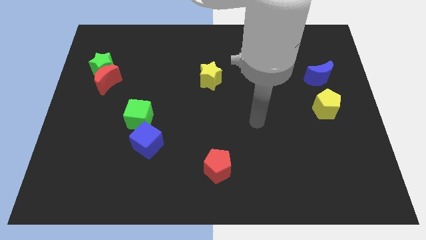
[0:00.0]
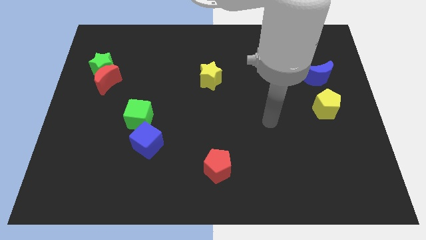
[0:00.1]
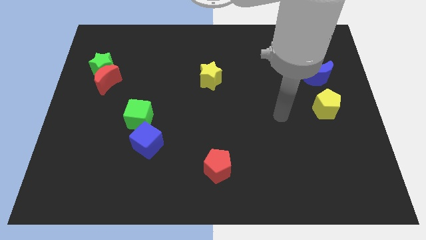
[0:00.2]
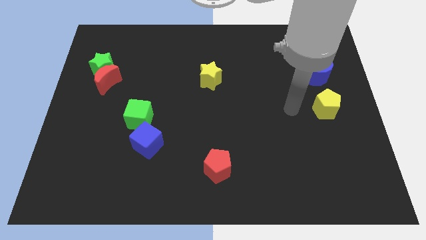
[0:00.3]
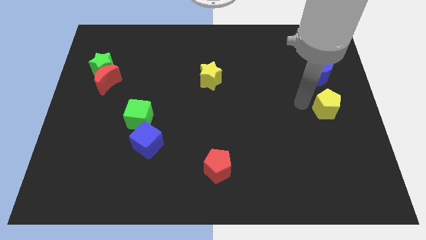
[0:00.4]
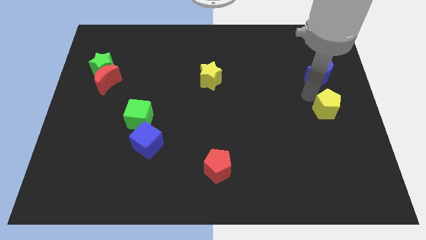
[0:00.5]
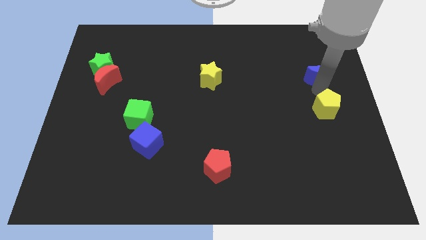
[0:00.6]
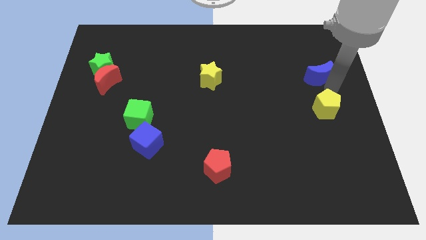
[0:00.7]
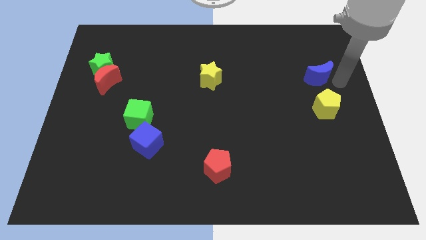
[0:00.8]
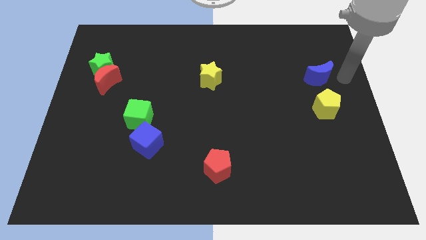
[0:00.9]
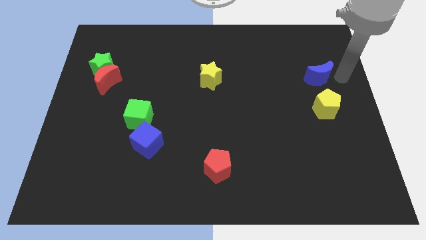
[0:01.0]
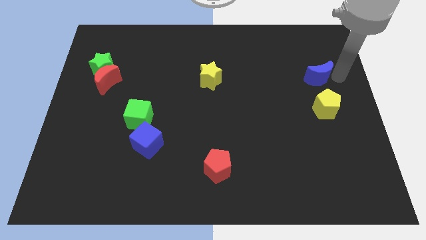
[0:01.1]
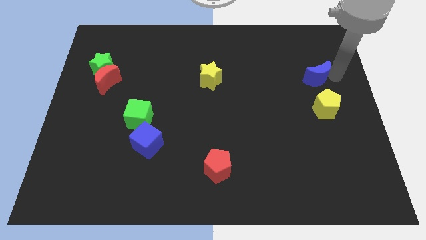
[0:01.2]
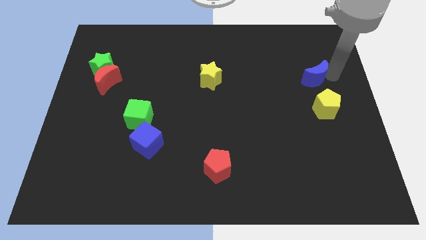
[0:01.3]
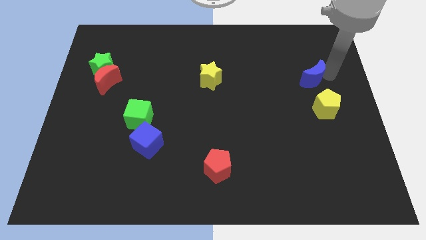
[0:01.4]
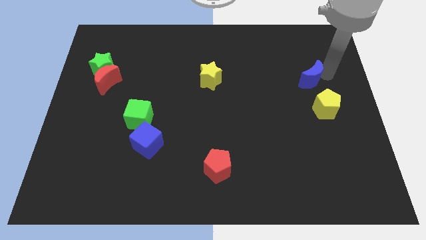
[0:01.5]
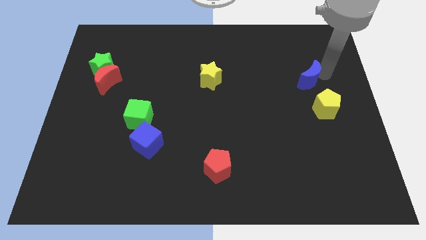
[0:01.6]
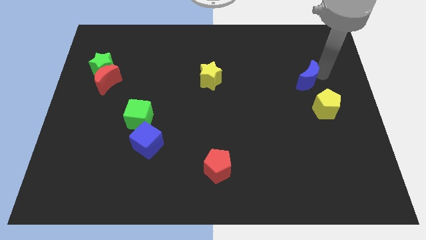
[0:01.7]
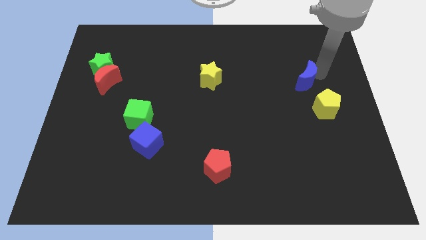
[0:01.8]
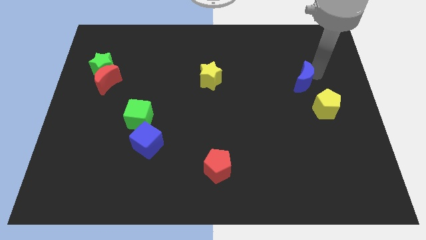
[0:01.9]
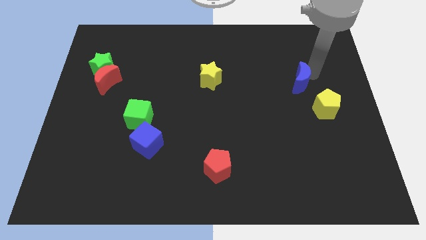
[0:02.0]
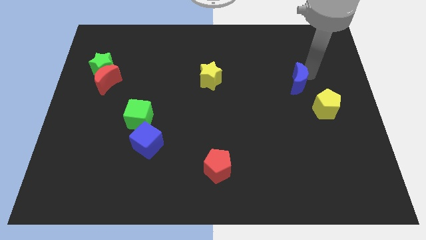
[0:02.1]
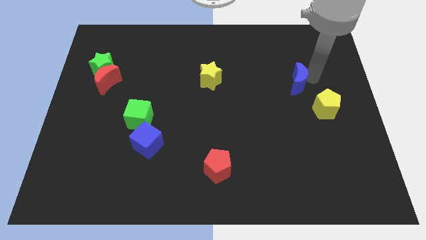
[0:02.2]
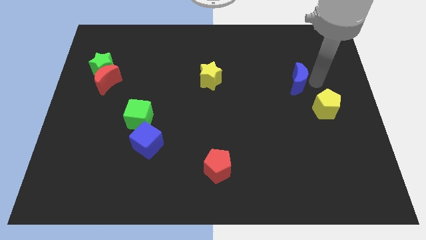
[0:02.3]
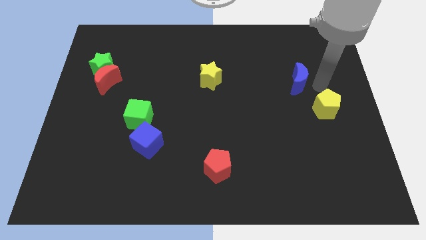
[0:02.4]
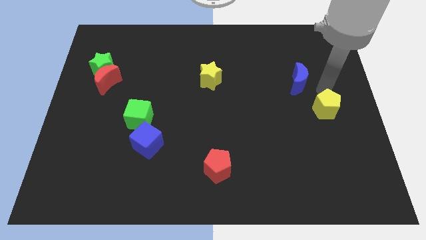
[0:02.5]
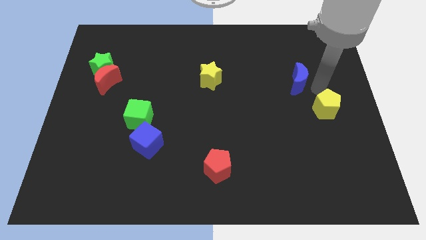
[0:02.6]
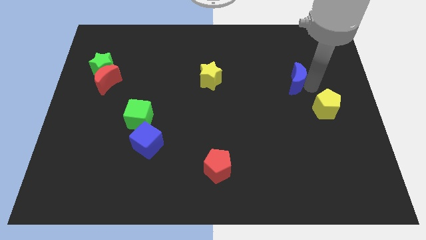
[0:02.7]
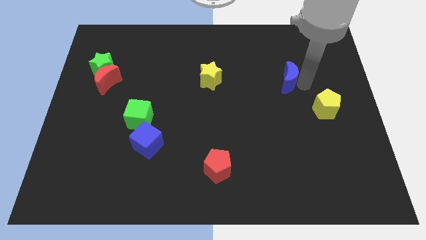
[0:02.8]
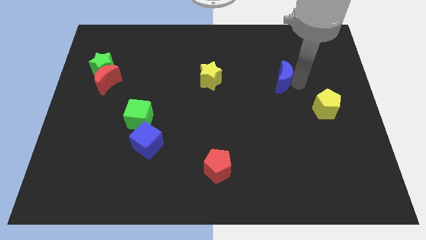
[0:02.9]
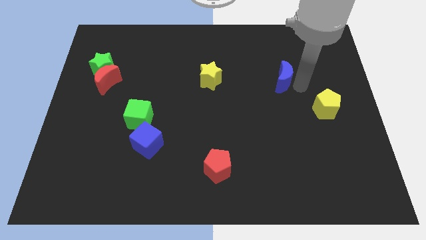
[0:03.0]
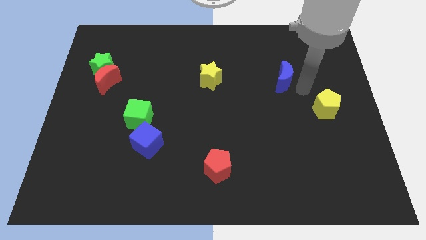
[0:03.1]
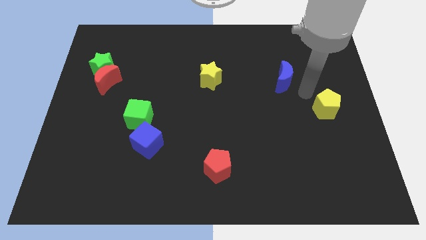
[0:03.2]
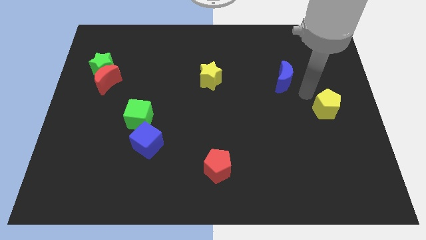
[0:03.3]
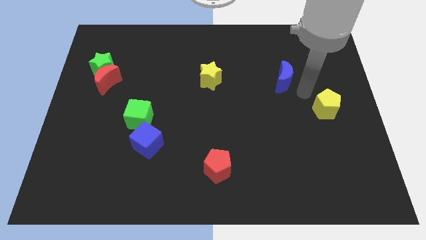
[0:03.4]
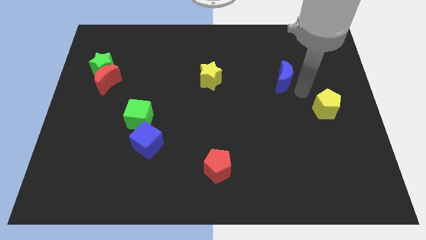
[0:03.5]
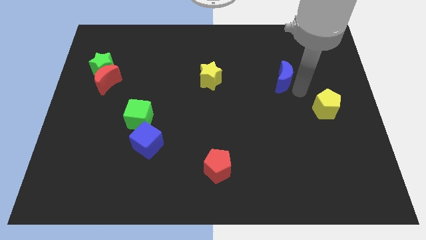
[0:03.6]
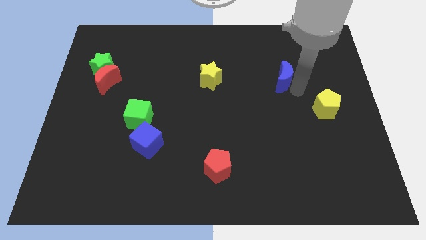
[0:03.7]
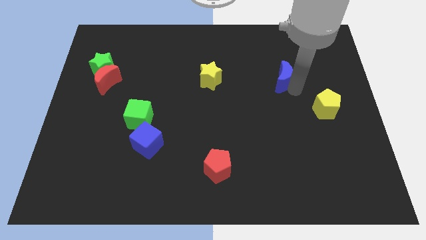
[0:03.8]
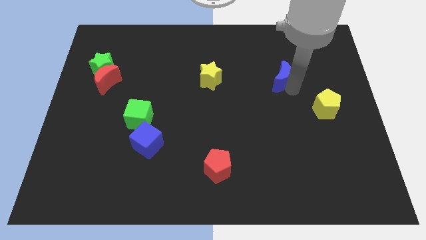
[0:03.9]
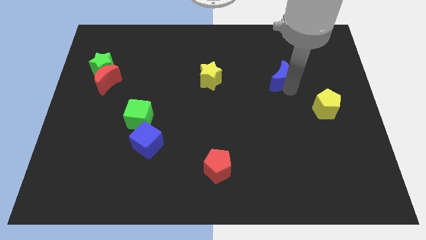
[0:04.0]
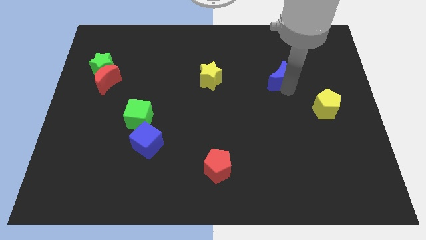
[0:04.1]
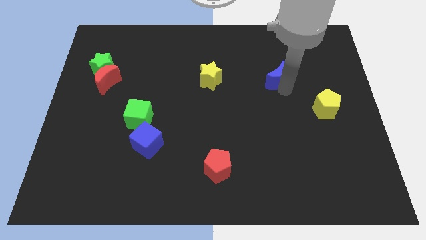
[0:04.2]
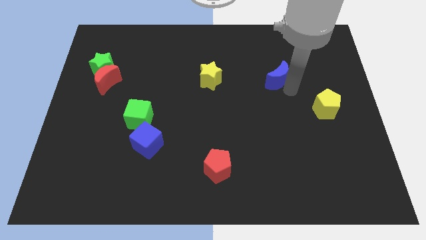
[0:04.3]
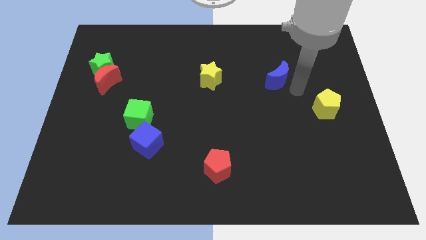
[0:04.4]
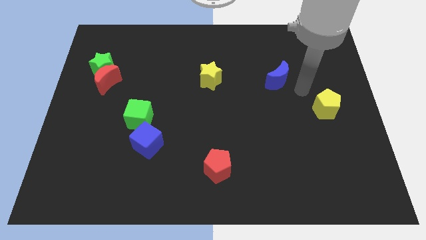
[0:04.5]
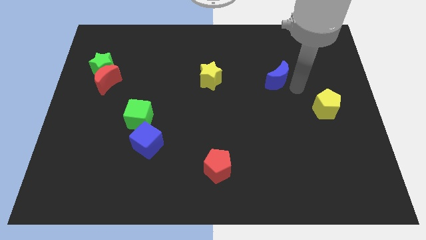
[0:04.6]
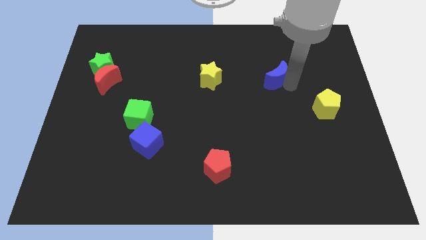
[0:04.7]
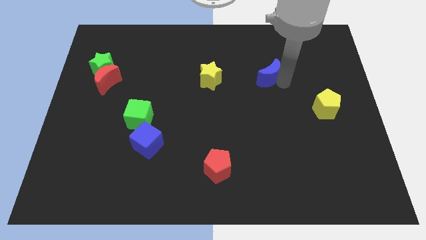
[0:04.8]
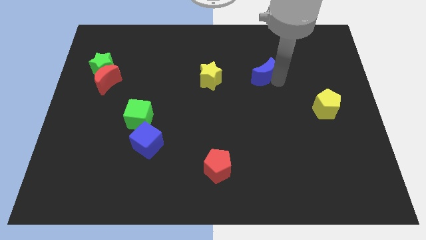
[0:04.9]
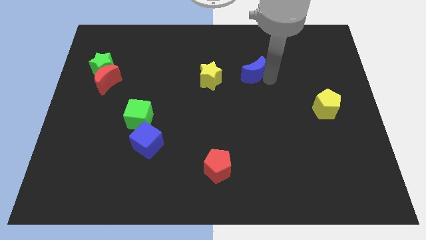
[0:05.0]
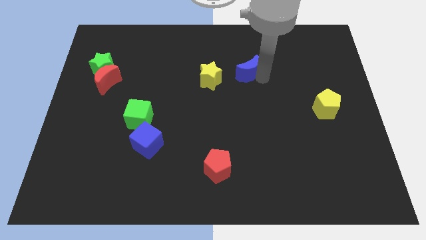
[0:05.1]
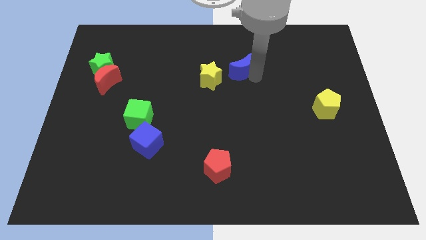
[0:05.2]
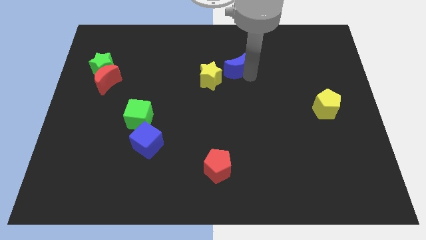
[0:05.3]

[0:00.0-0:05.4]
slide the blue moon left

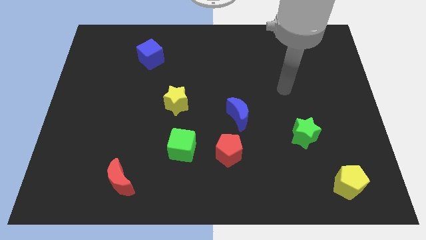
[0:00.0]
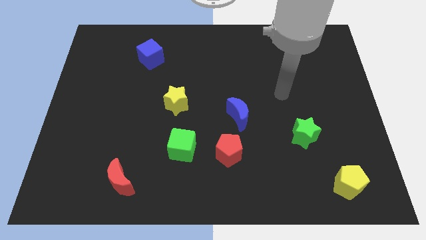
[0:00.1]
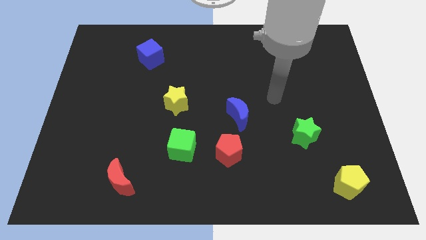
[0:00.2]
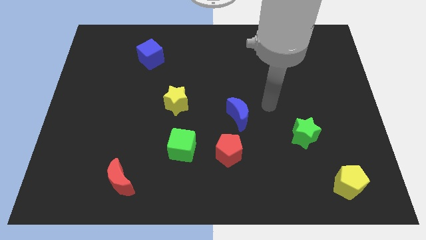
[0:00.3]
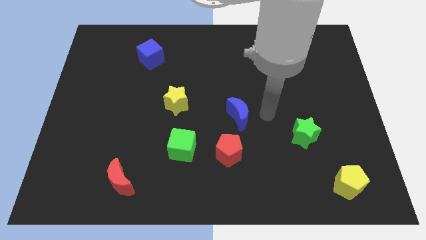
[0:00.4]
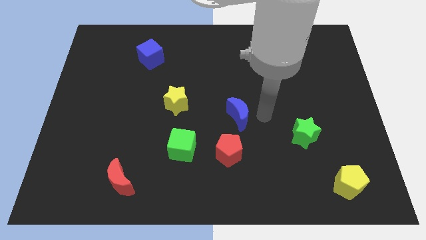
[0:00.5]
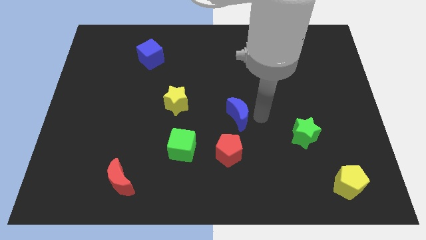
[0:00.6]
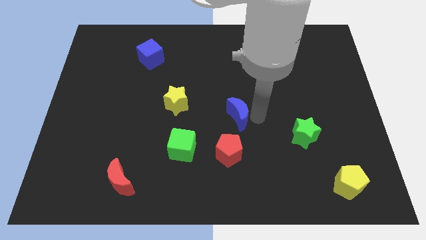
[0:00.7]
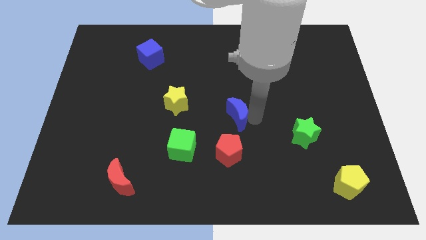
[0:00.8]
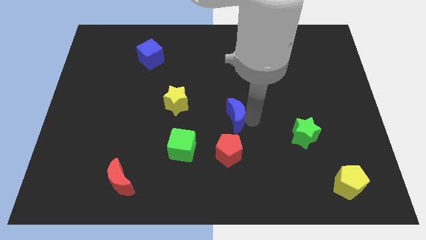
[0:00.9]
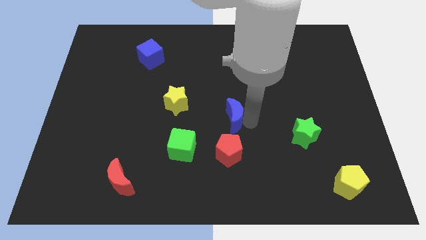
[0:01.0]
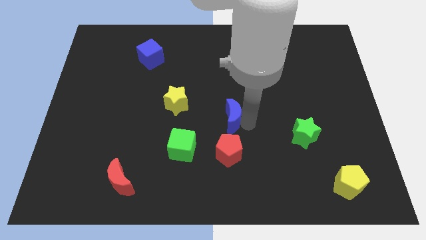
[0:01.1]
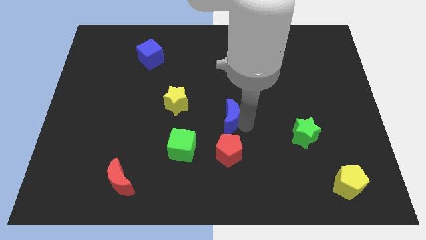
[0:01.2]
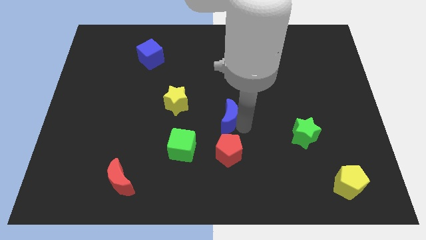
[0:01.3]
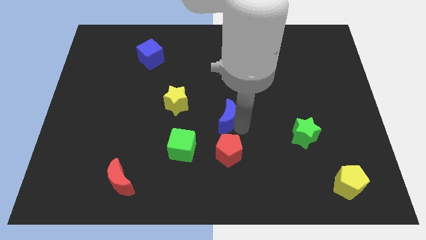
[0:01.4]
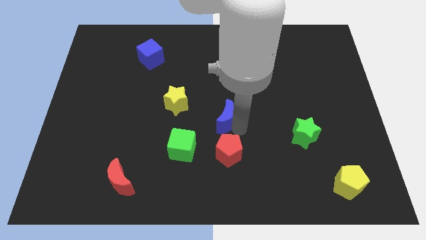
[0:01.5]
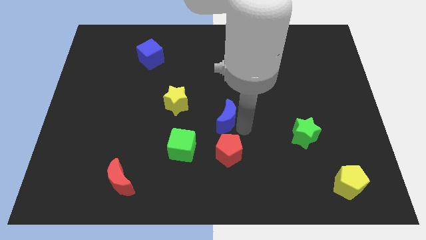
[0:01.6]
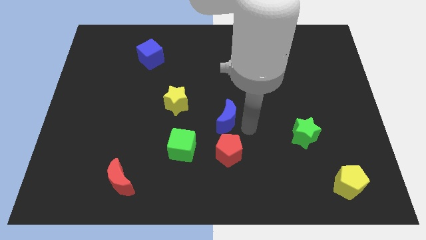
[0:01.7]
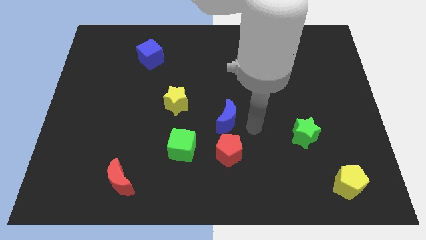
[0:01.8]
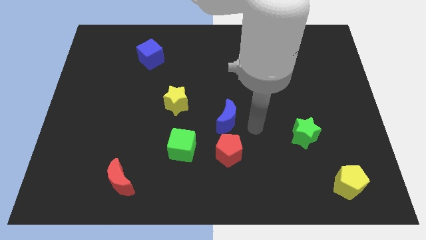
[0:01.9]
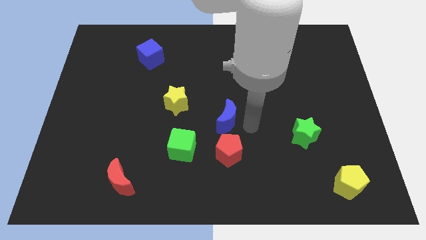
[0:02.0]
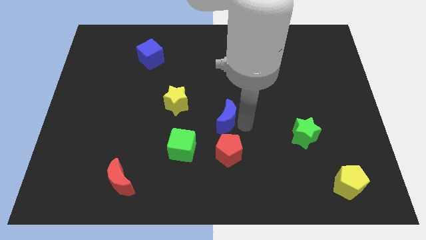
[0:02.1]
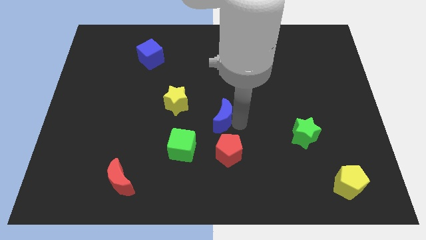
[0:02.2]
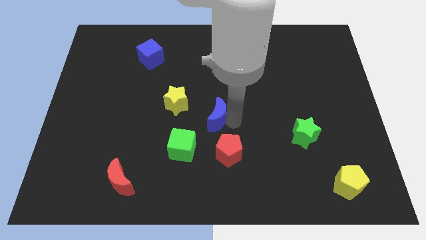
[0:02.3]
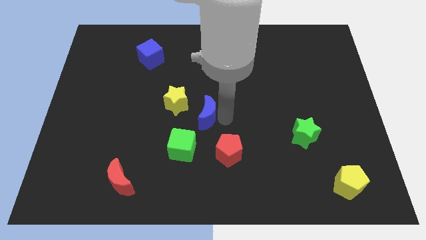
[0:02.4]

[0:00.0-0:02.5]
move the blue moon a little to the left
